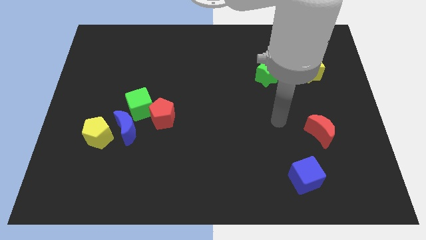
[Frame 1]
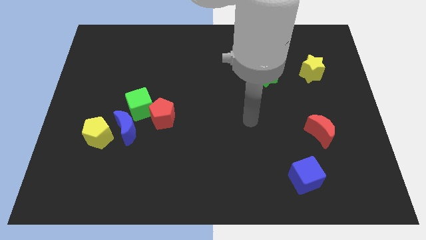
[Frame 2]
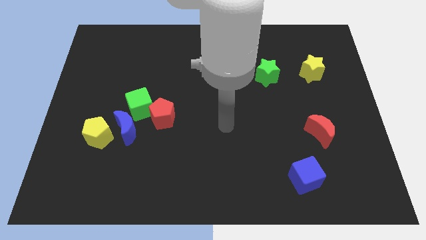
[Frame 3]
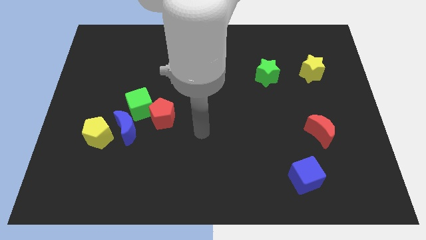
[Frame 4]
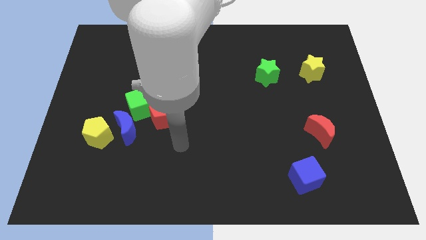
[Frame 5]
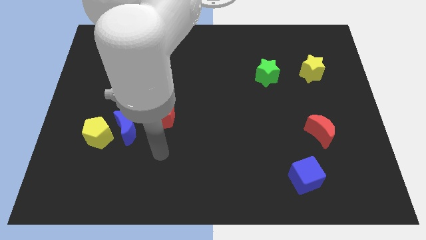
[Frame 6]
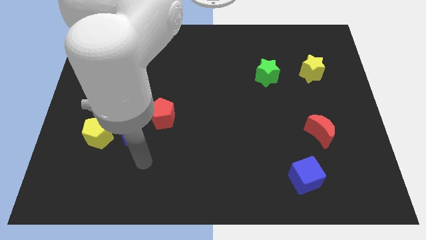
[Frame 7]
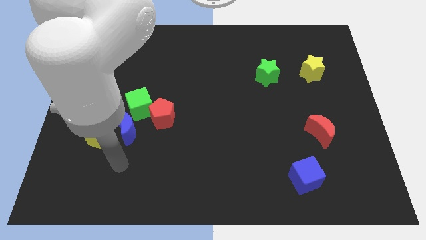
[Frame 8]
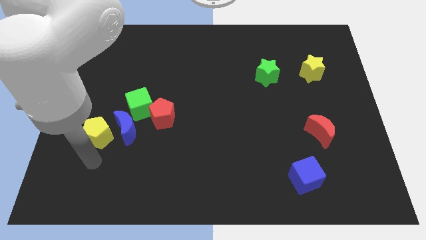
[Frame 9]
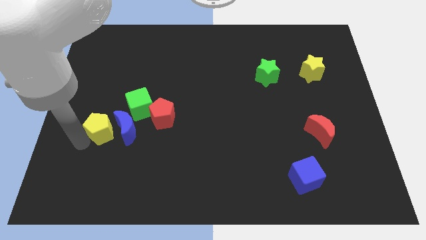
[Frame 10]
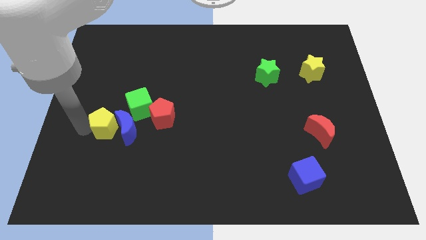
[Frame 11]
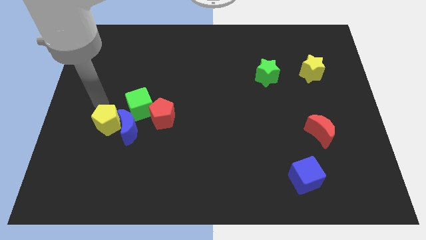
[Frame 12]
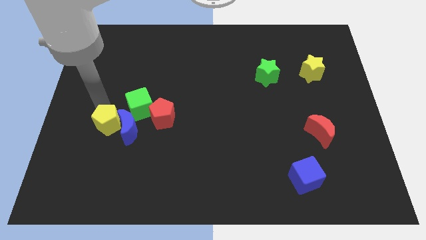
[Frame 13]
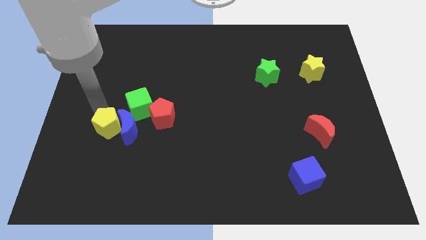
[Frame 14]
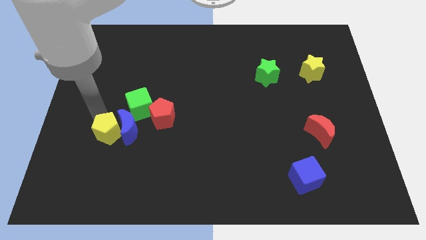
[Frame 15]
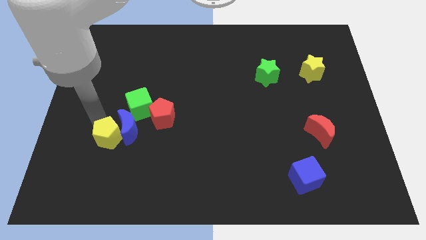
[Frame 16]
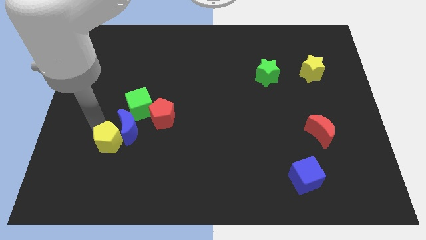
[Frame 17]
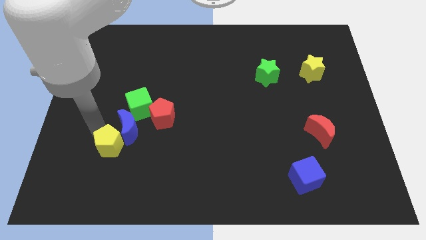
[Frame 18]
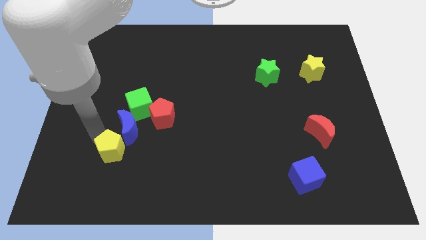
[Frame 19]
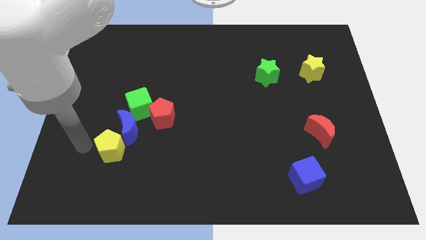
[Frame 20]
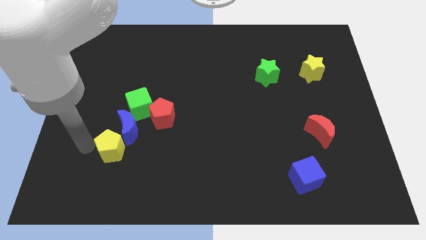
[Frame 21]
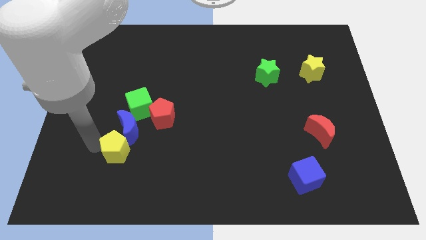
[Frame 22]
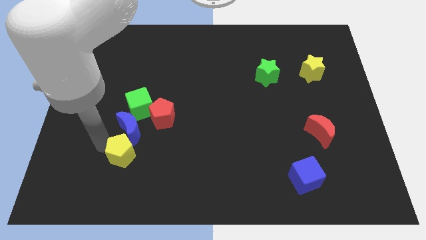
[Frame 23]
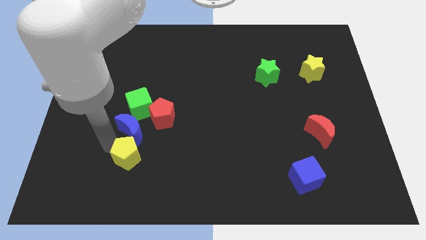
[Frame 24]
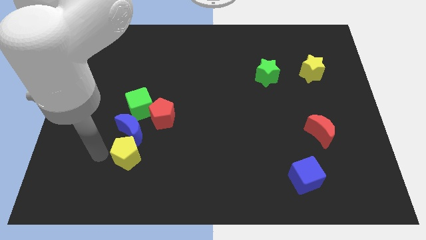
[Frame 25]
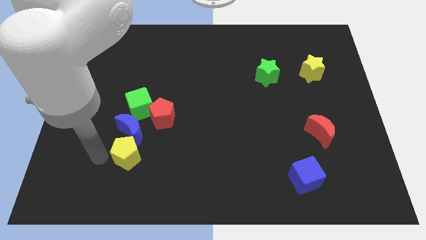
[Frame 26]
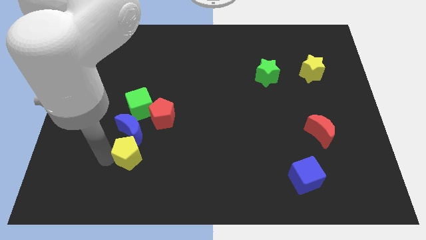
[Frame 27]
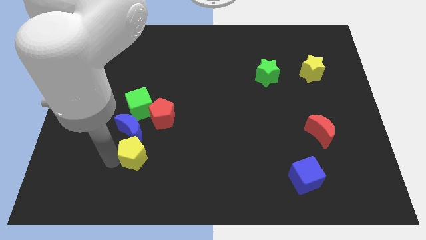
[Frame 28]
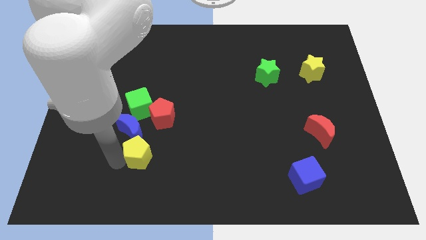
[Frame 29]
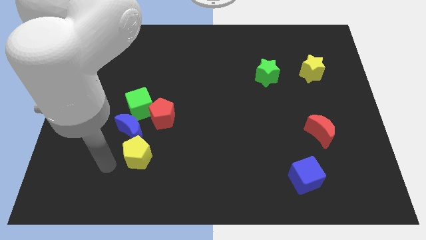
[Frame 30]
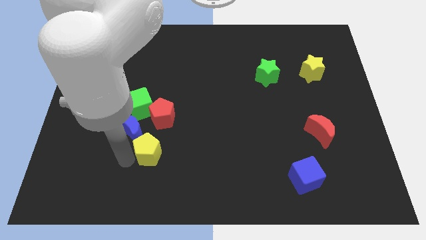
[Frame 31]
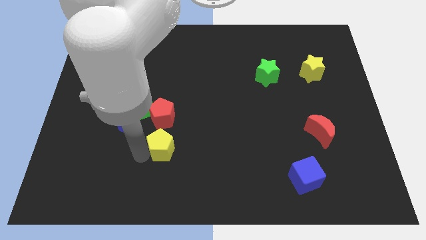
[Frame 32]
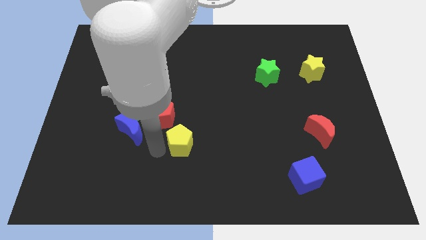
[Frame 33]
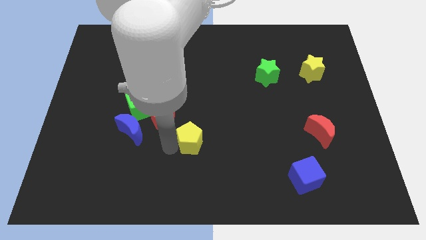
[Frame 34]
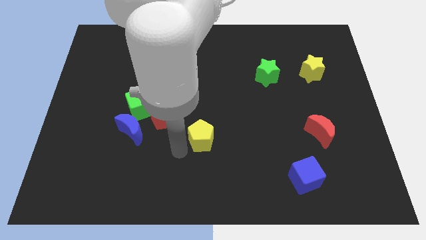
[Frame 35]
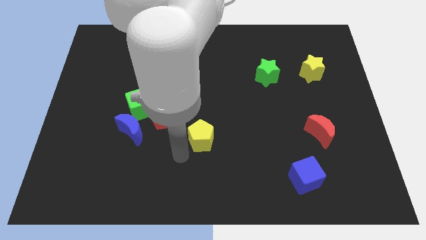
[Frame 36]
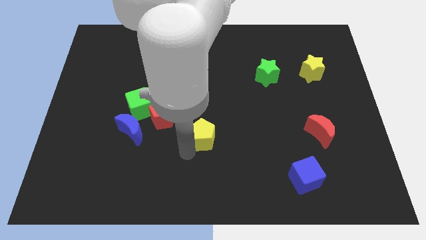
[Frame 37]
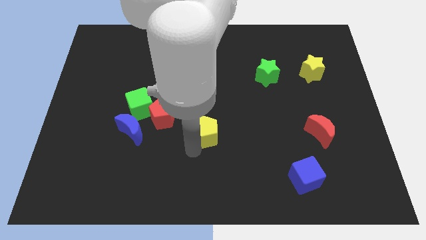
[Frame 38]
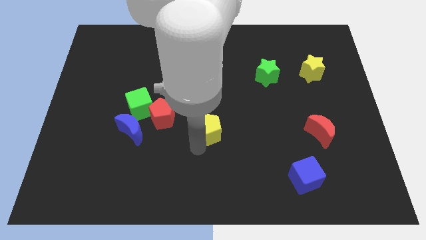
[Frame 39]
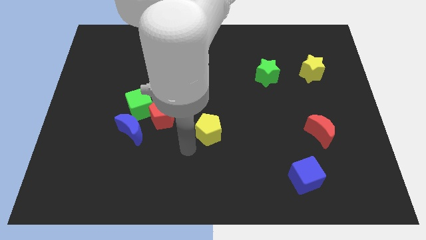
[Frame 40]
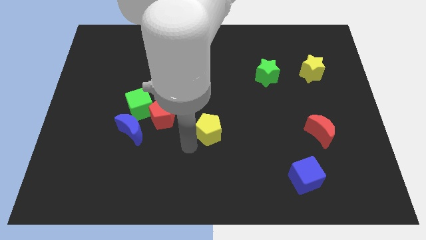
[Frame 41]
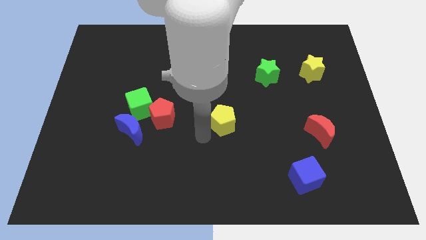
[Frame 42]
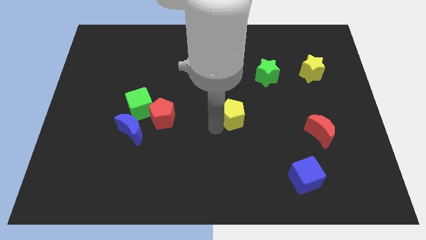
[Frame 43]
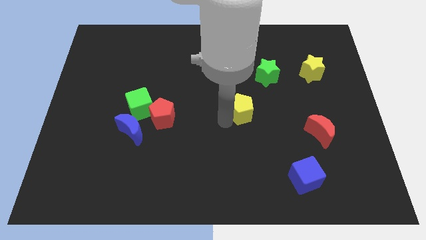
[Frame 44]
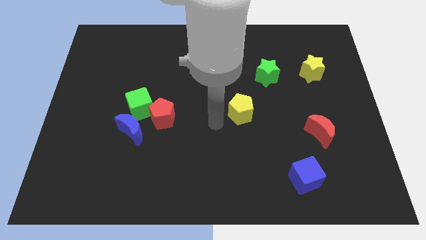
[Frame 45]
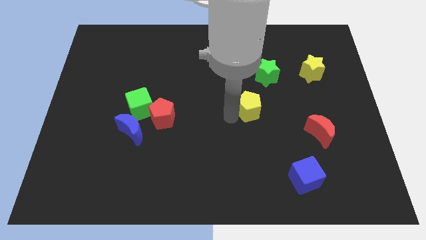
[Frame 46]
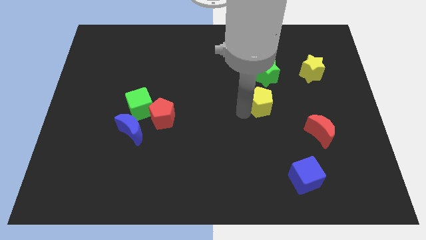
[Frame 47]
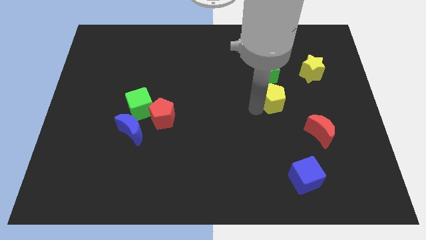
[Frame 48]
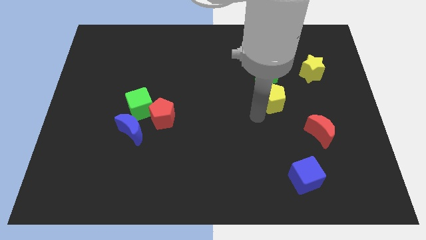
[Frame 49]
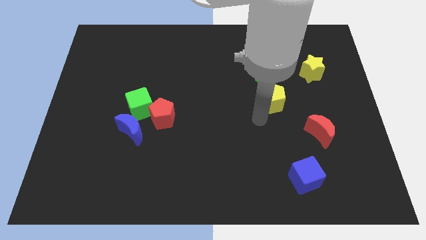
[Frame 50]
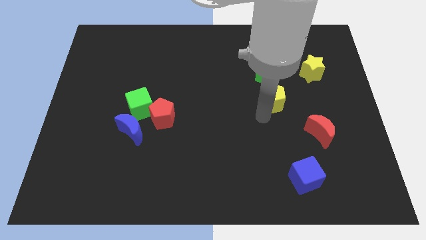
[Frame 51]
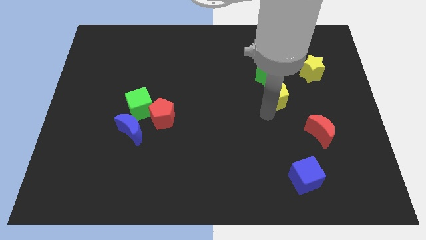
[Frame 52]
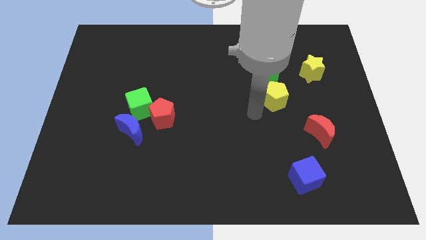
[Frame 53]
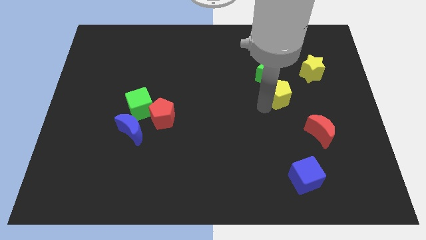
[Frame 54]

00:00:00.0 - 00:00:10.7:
move the yellow pentagon to the bottom left side of the yellow star

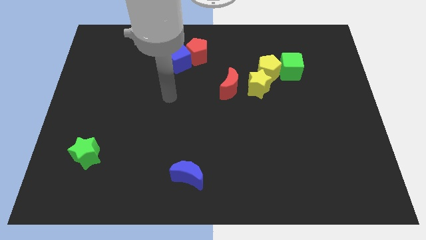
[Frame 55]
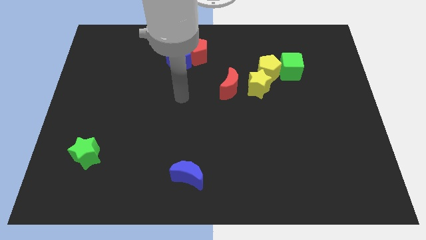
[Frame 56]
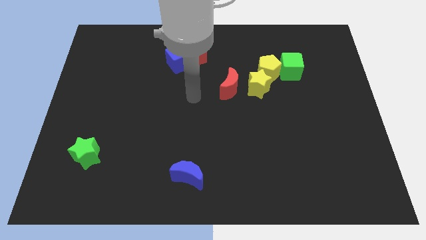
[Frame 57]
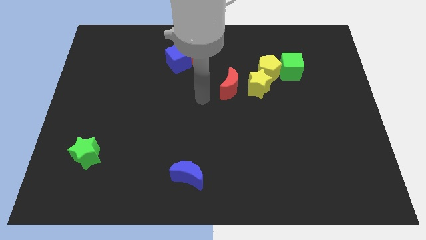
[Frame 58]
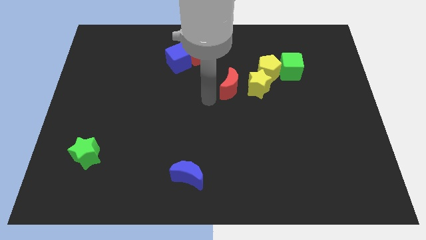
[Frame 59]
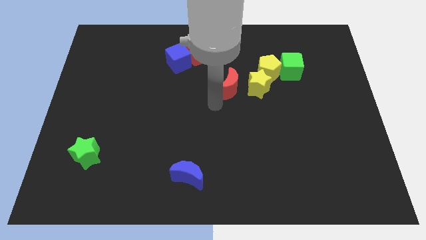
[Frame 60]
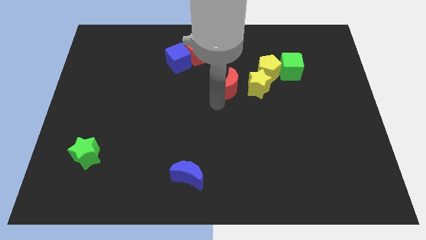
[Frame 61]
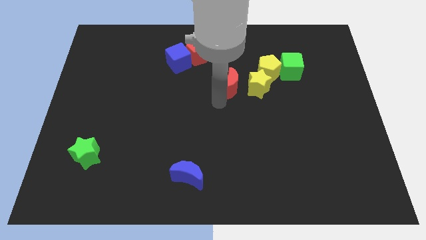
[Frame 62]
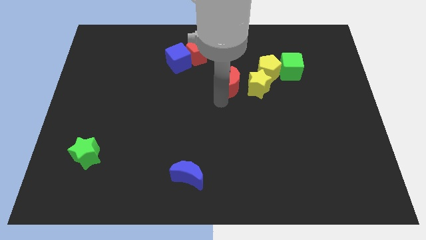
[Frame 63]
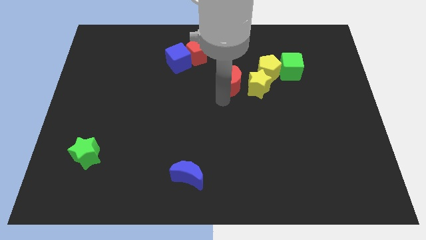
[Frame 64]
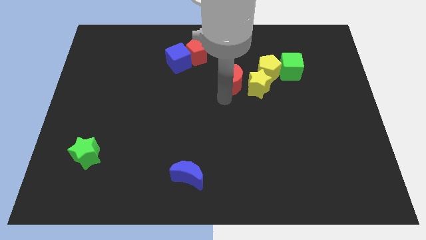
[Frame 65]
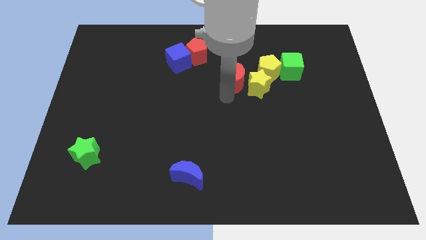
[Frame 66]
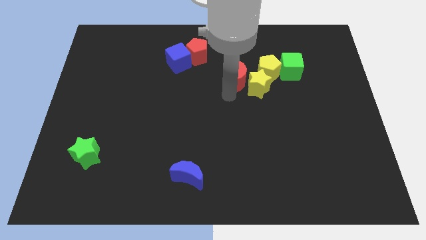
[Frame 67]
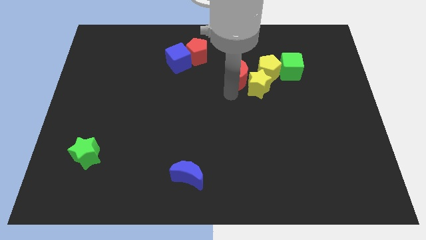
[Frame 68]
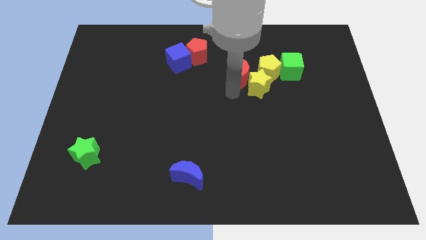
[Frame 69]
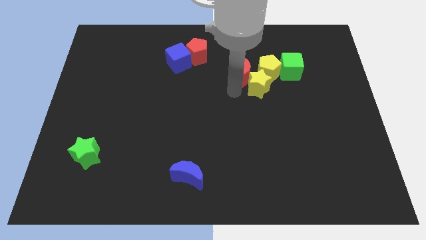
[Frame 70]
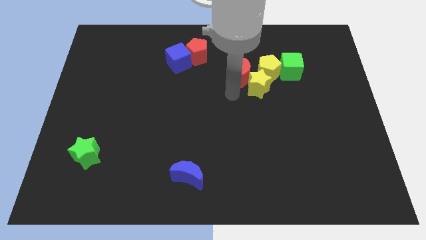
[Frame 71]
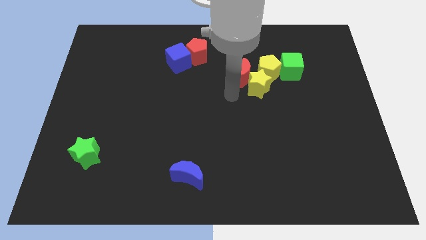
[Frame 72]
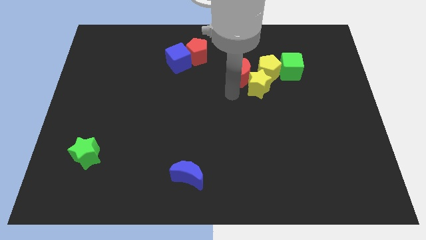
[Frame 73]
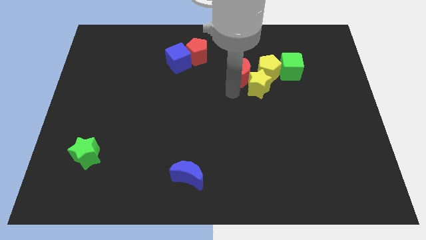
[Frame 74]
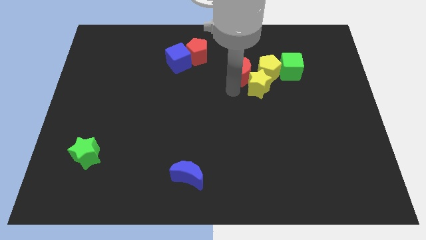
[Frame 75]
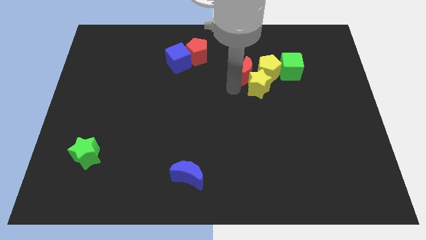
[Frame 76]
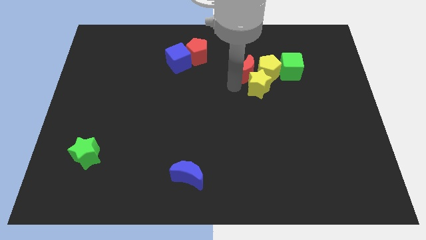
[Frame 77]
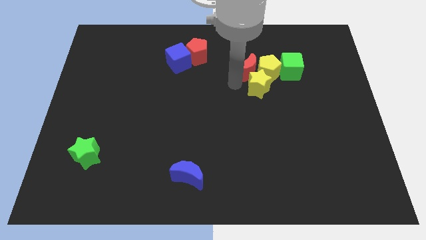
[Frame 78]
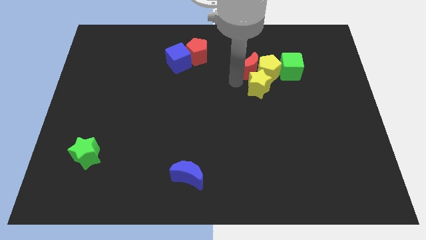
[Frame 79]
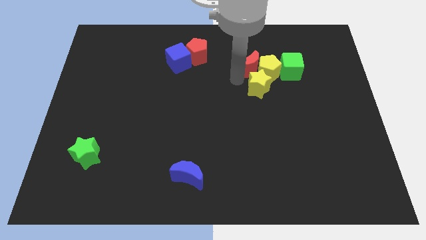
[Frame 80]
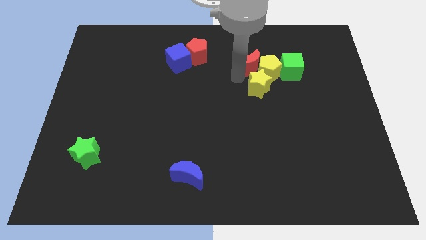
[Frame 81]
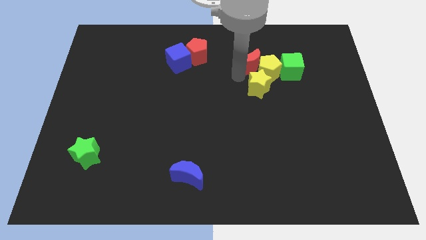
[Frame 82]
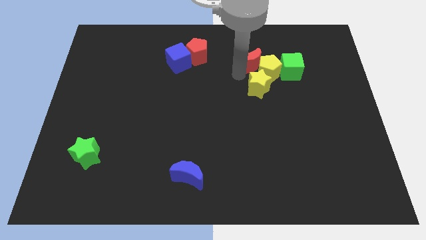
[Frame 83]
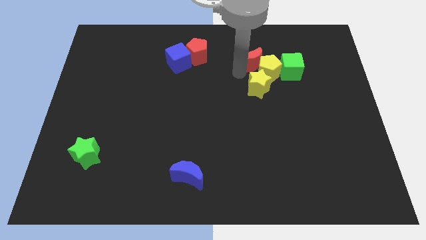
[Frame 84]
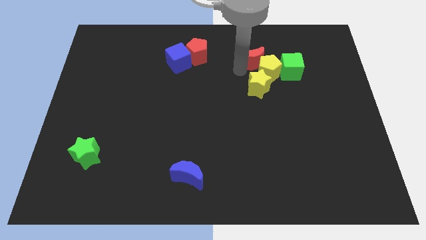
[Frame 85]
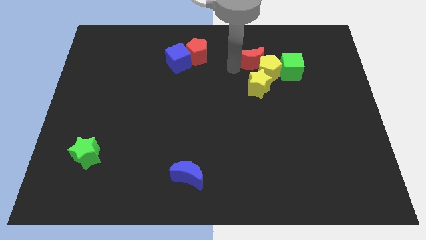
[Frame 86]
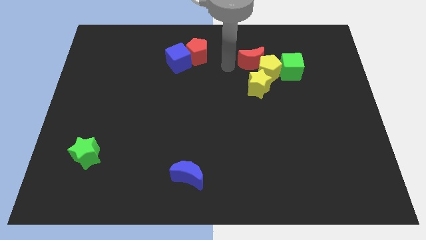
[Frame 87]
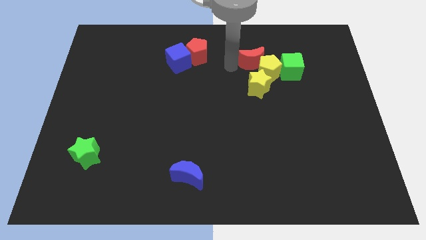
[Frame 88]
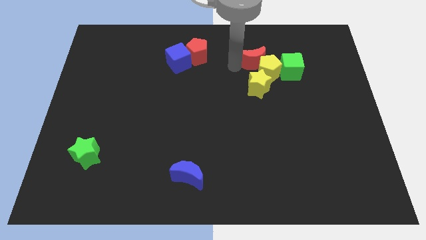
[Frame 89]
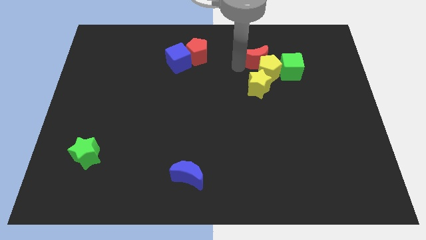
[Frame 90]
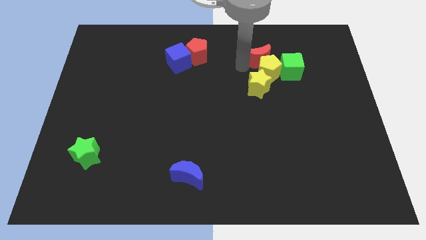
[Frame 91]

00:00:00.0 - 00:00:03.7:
push the red moon to the top right side of the yellow pentagon
